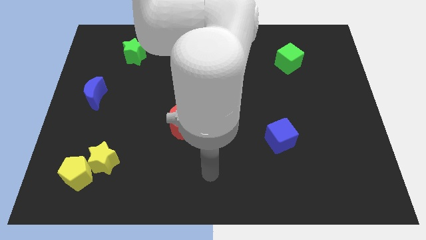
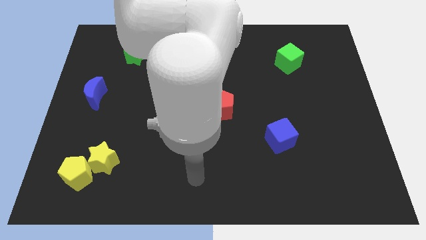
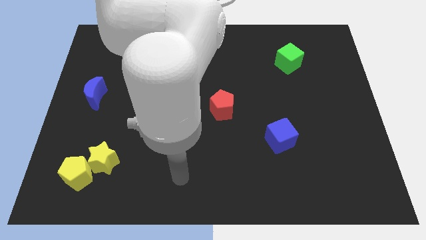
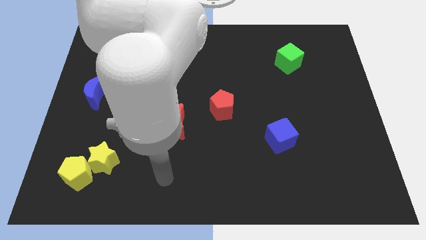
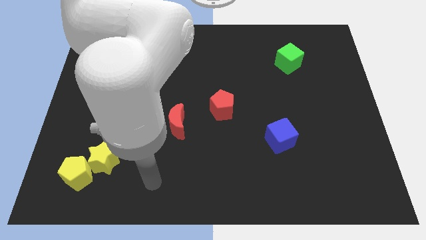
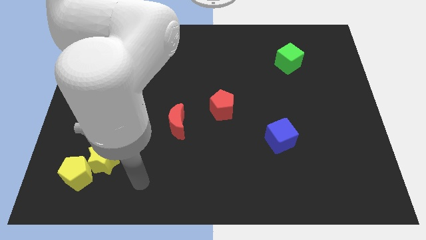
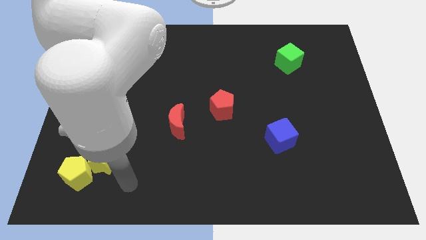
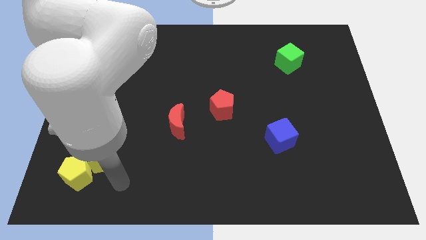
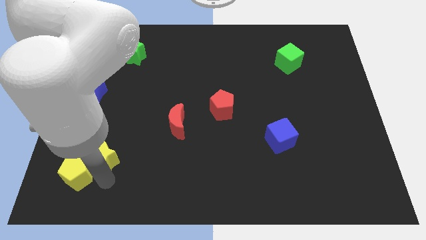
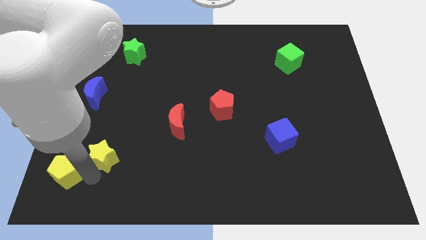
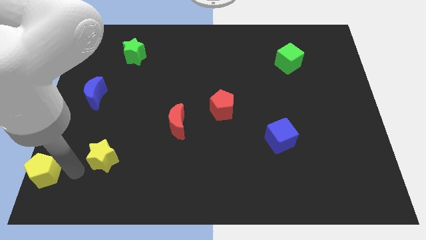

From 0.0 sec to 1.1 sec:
separate the yellow star from the yellow pentagon

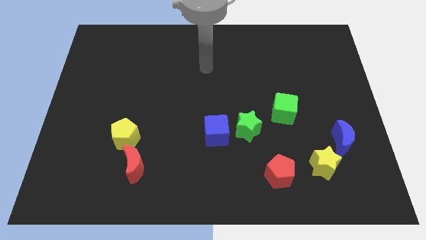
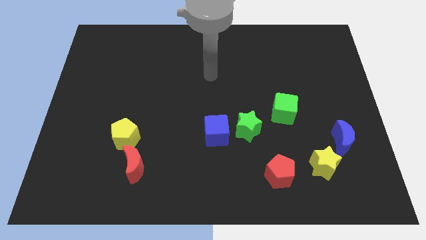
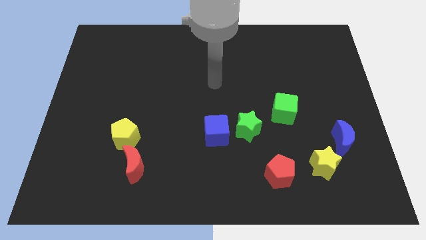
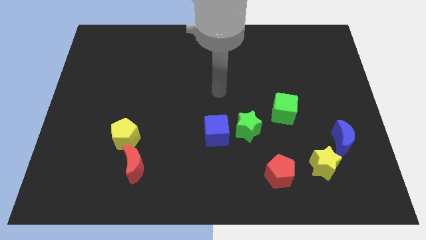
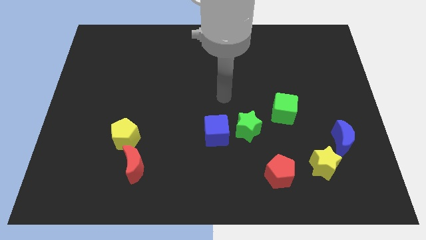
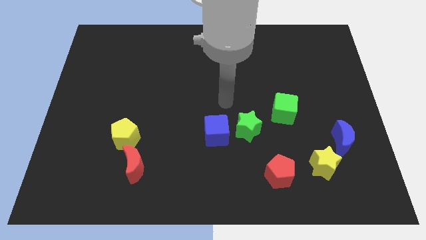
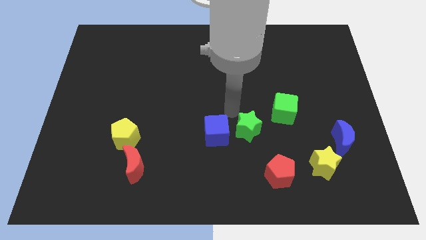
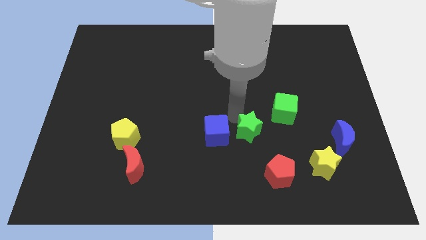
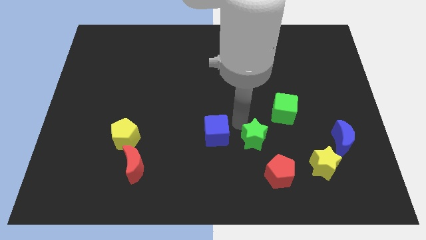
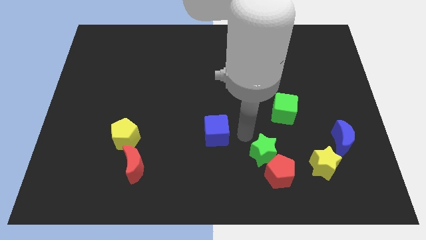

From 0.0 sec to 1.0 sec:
move the blue cube away from the green star

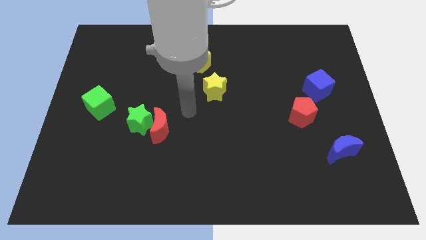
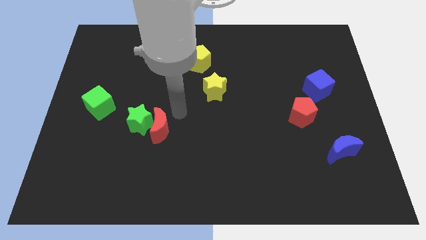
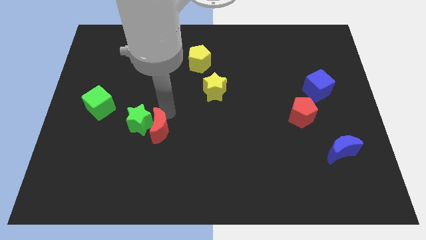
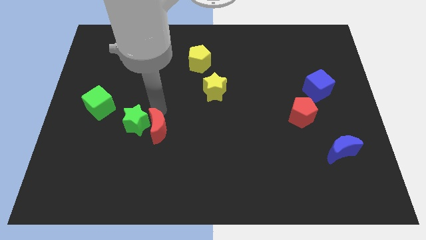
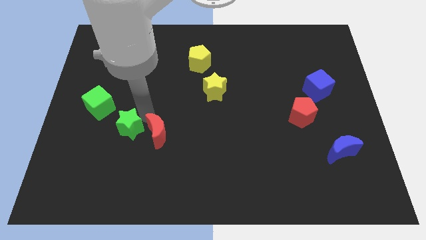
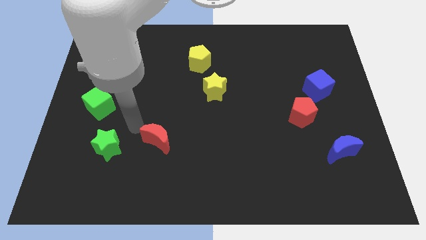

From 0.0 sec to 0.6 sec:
pull the red moon apart from the green star

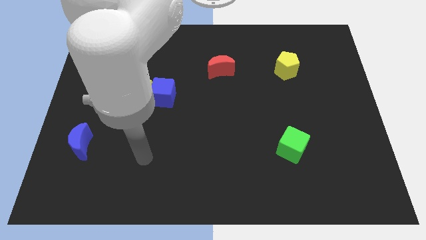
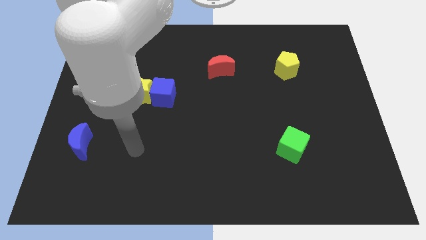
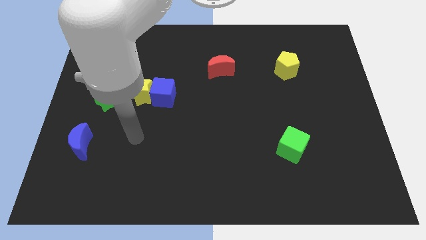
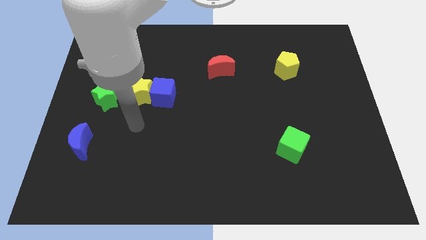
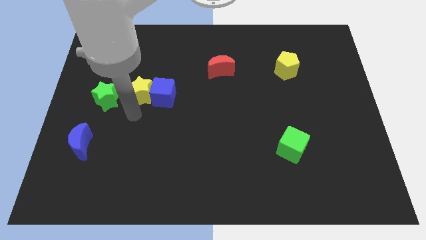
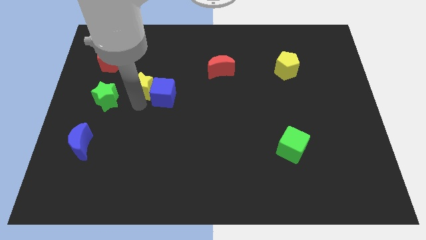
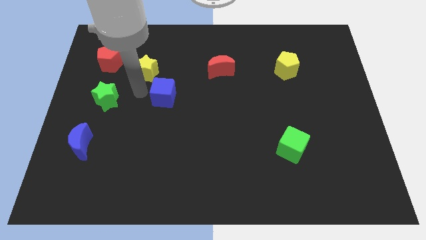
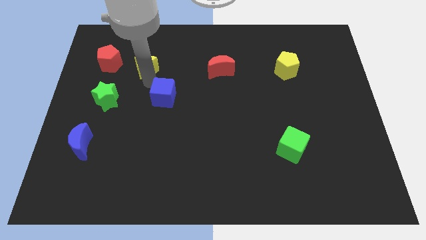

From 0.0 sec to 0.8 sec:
move the blue cube away from the yellow star

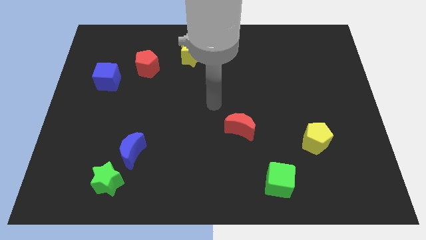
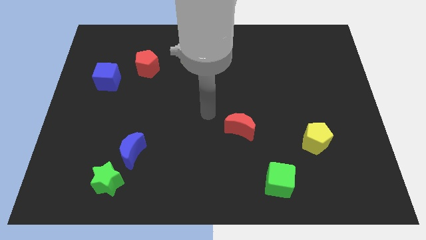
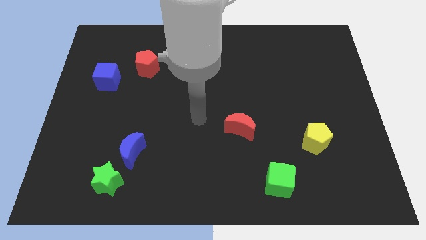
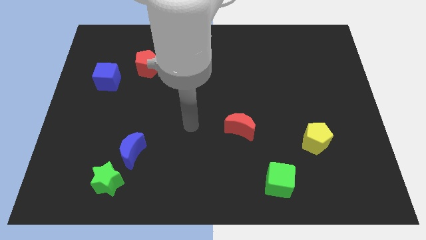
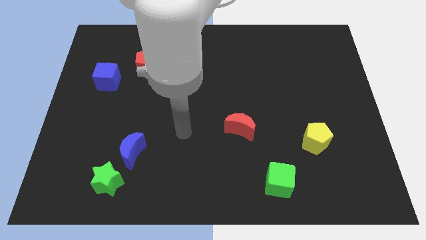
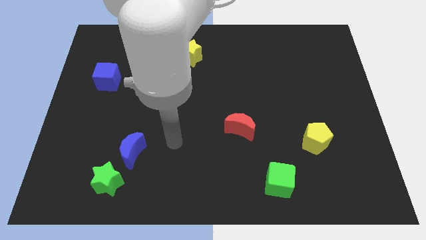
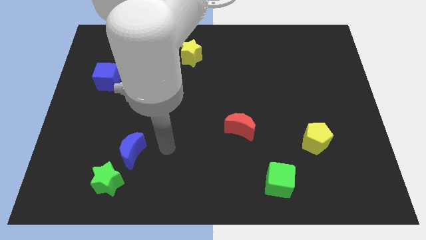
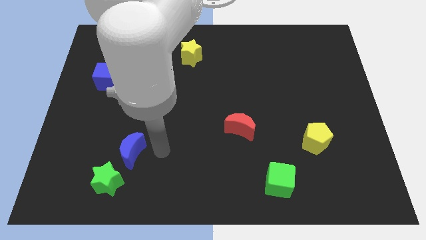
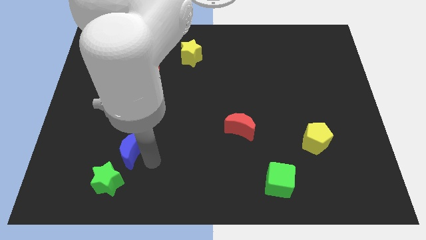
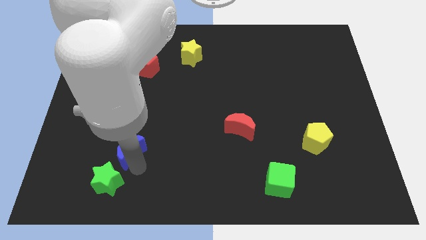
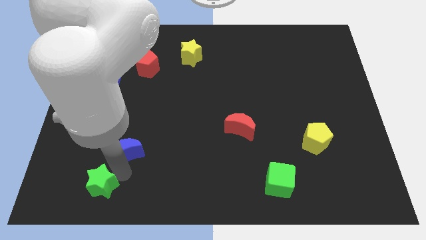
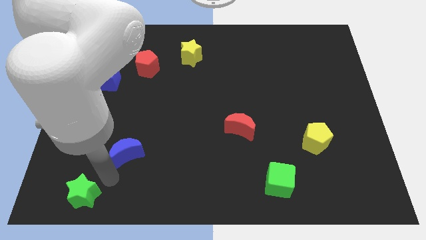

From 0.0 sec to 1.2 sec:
move the blue moon away from the green star

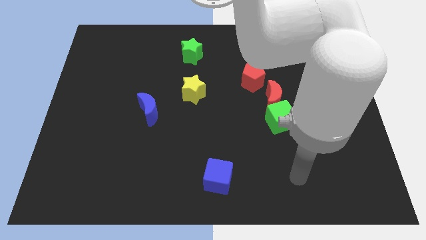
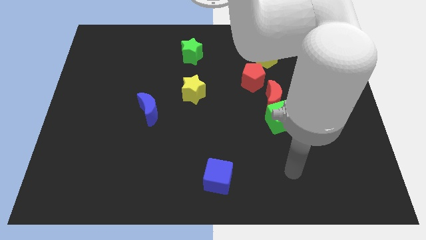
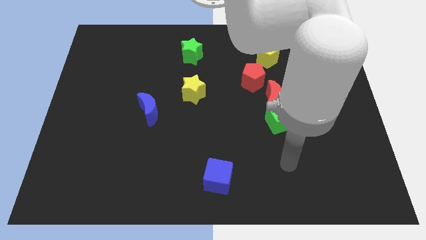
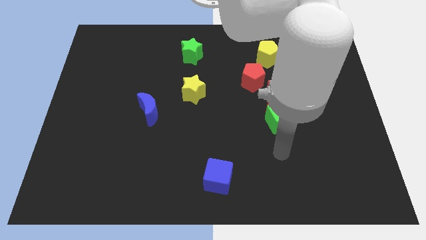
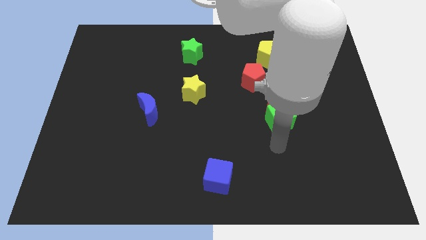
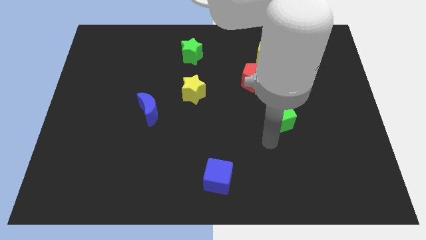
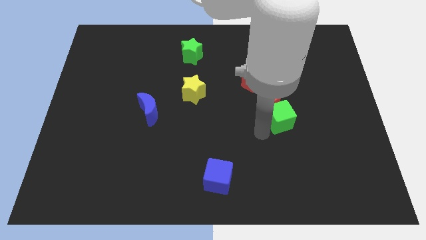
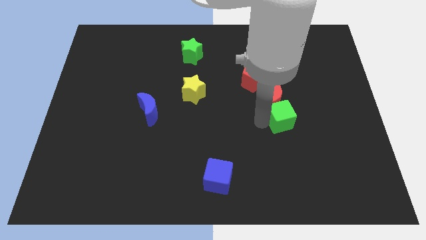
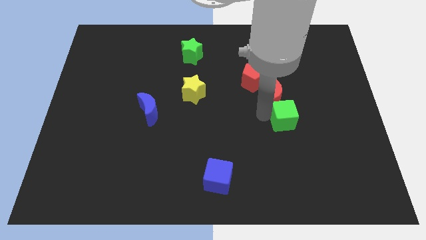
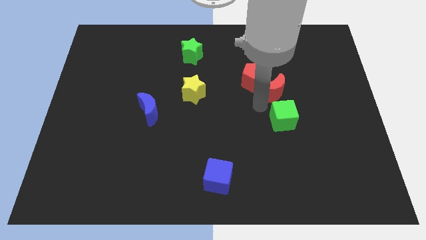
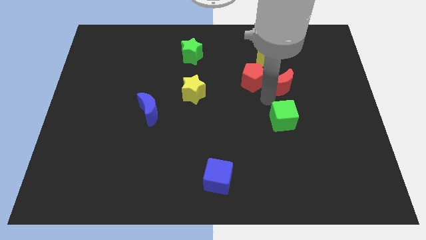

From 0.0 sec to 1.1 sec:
move the green cube away from the red moon

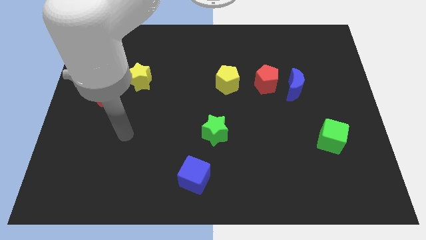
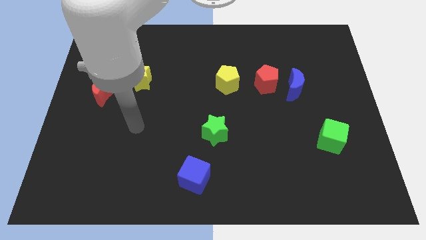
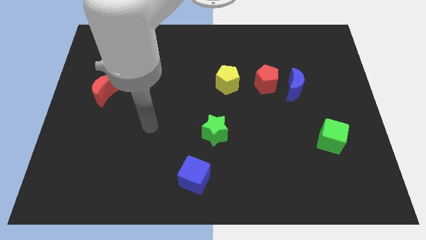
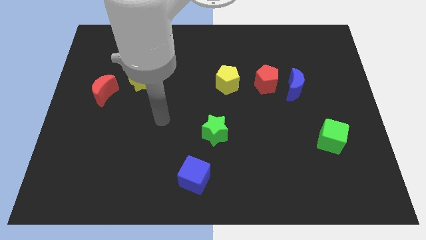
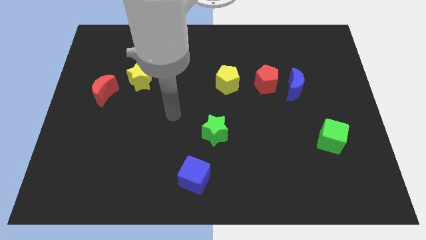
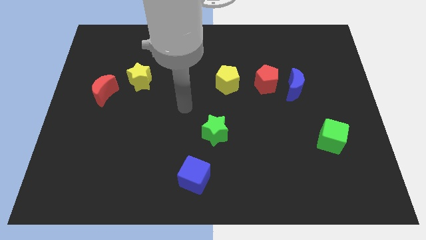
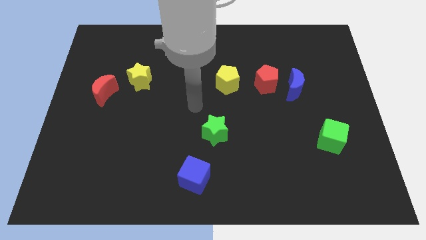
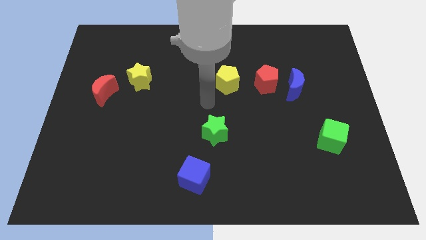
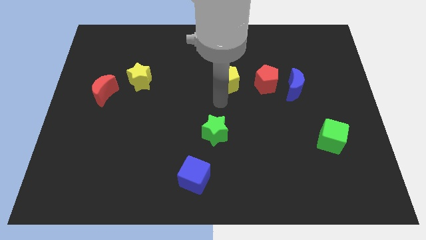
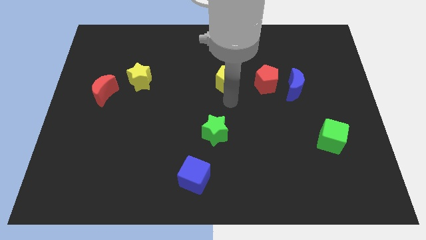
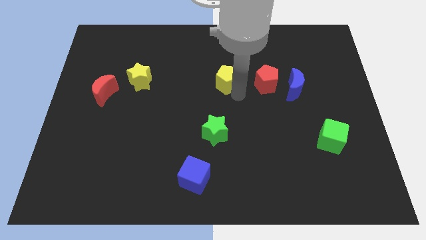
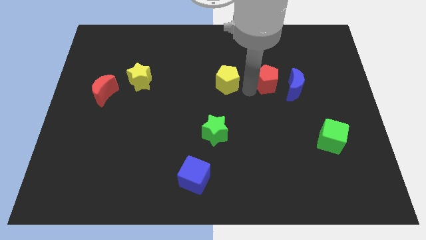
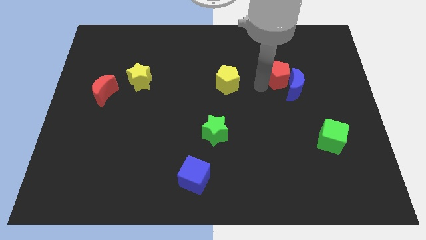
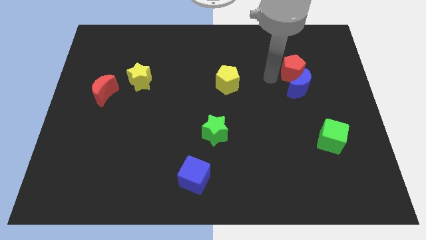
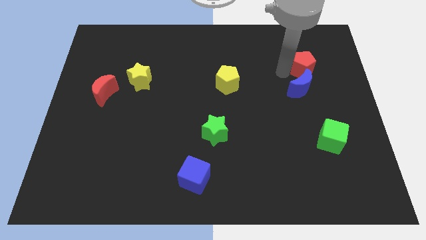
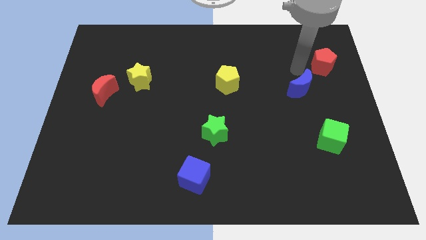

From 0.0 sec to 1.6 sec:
separate the blue moon from the red pentagon

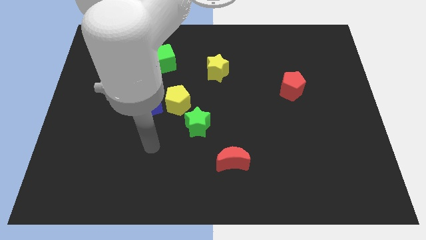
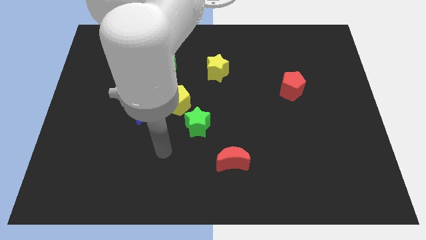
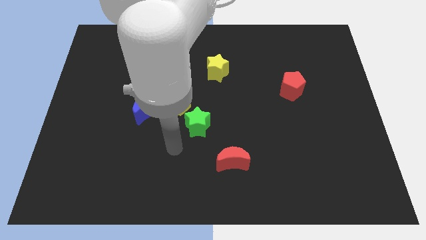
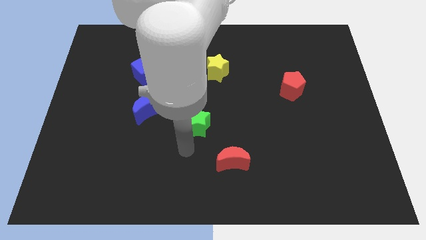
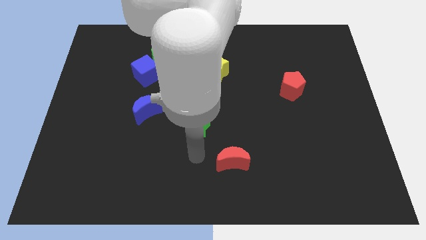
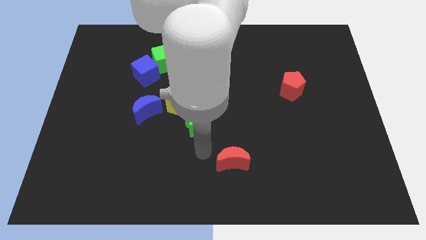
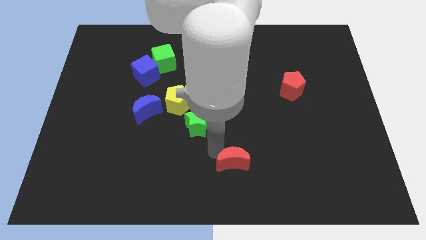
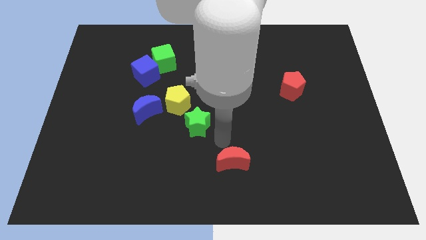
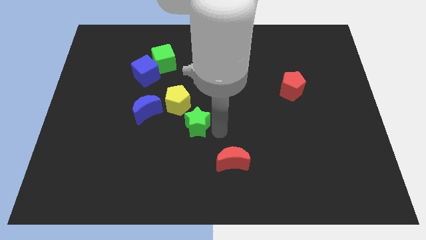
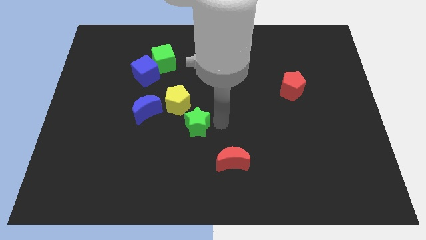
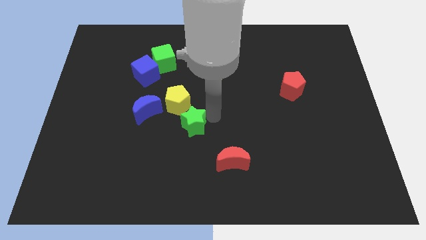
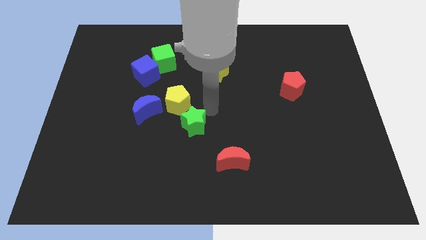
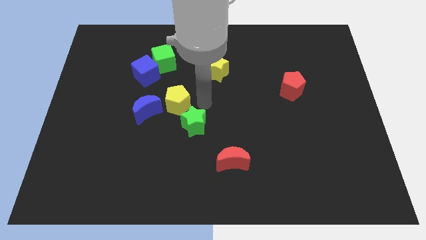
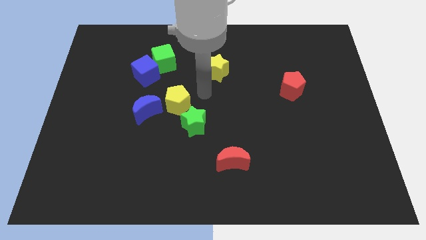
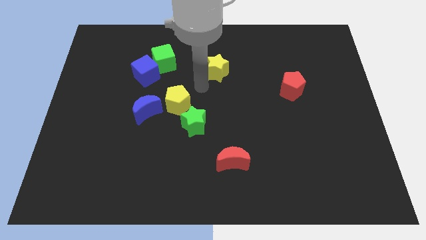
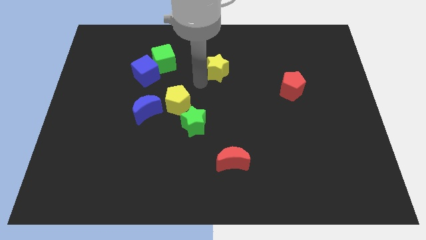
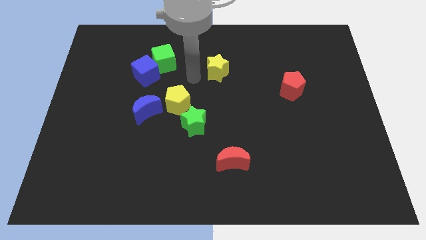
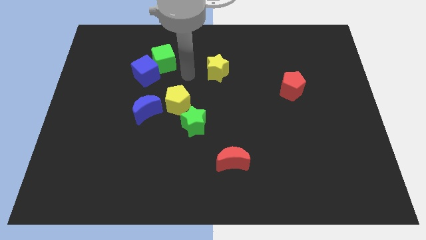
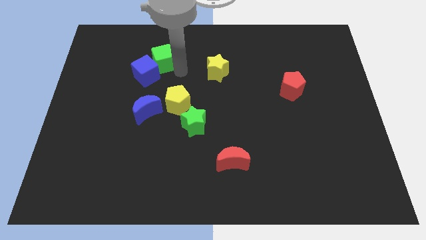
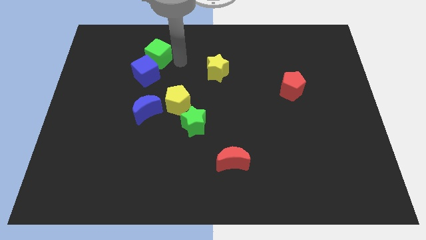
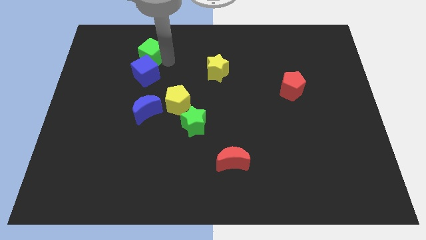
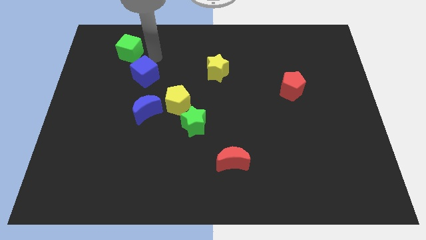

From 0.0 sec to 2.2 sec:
move the blue cube away from the green cube
